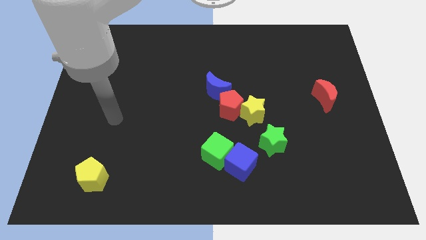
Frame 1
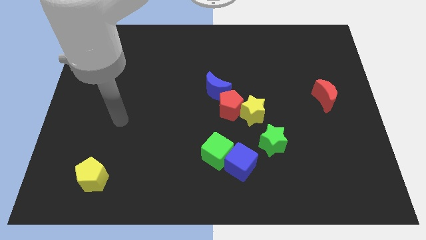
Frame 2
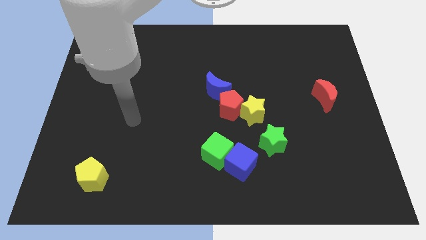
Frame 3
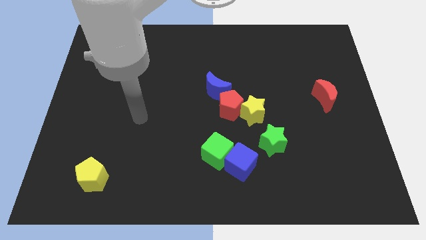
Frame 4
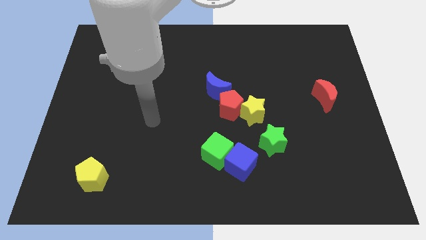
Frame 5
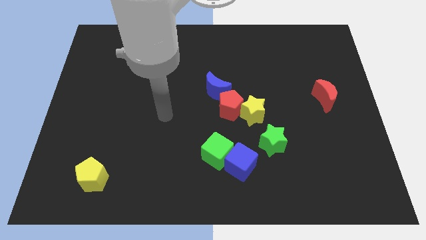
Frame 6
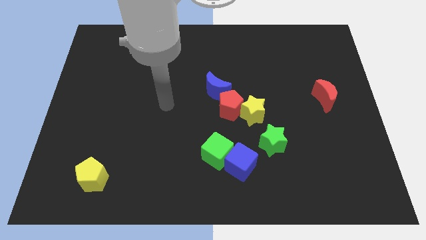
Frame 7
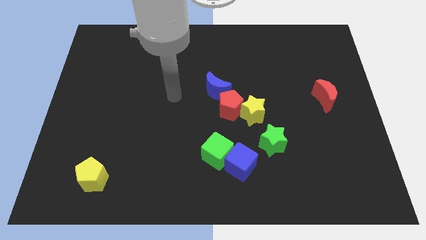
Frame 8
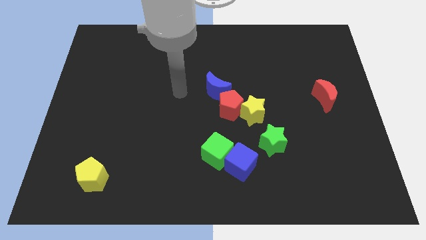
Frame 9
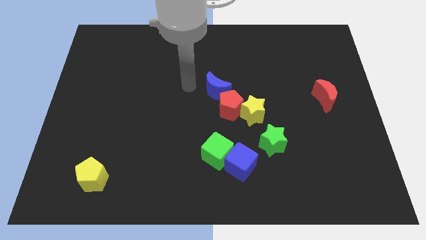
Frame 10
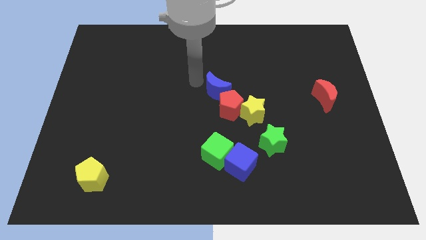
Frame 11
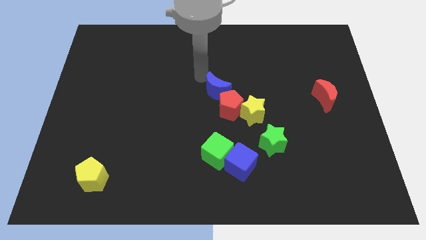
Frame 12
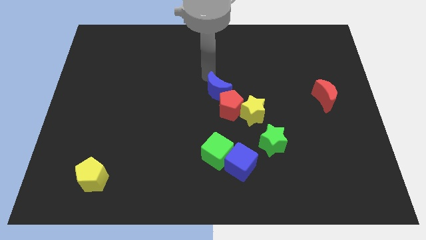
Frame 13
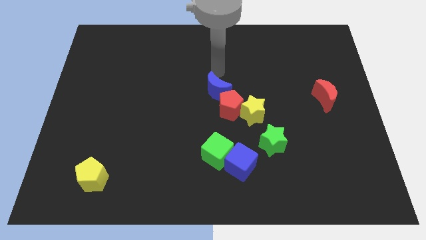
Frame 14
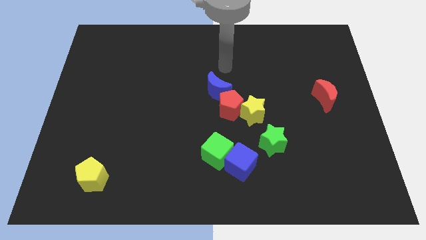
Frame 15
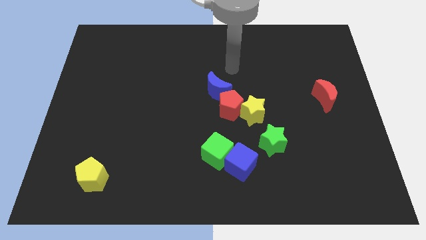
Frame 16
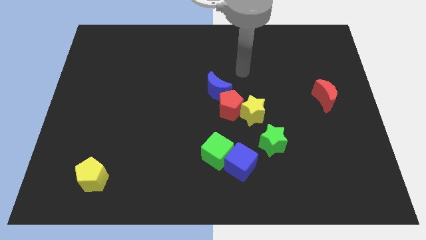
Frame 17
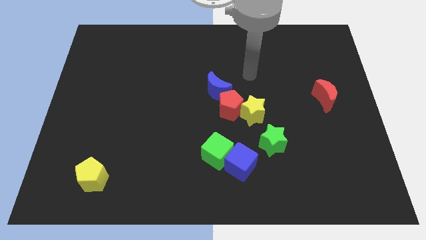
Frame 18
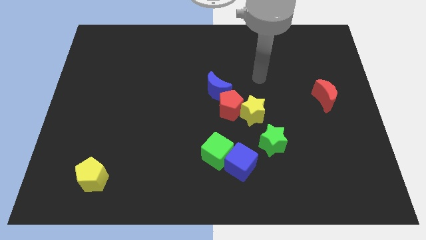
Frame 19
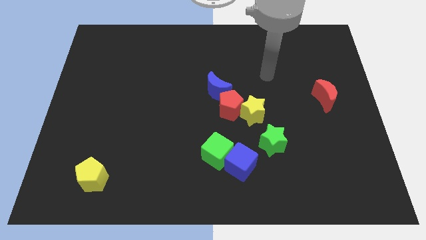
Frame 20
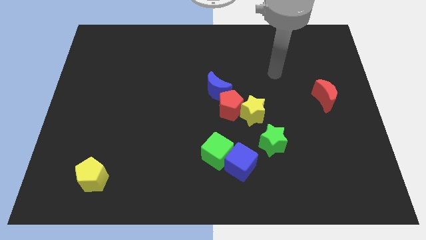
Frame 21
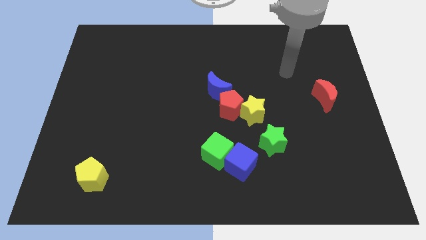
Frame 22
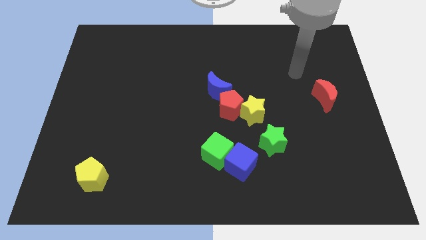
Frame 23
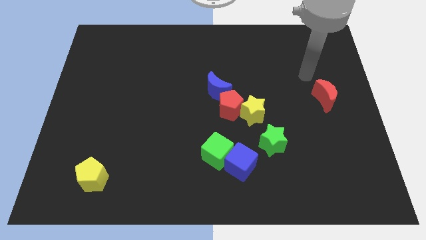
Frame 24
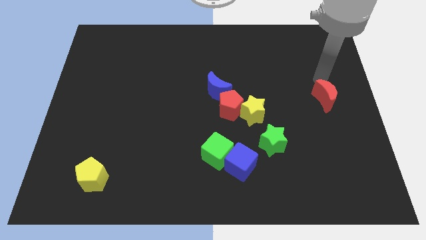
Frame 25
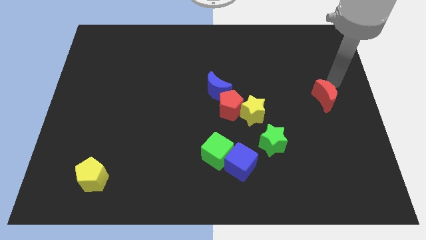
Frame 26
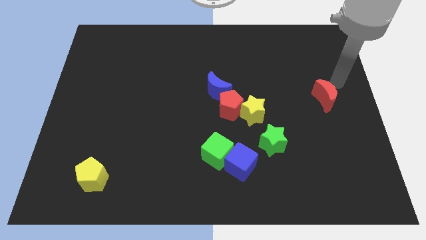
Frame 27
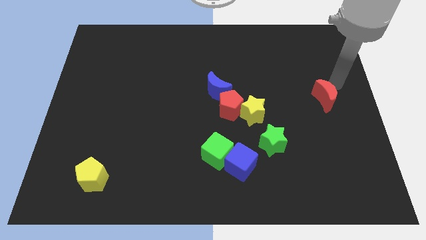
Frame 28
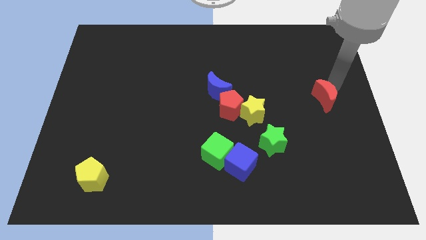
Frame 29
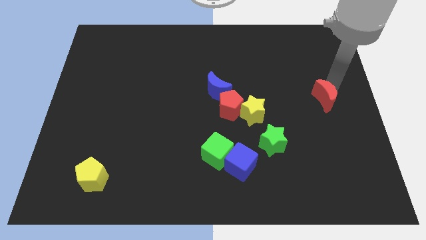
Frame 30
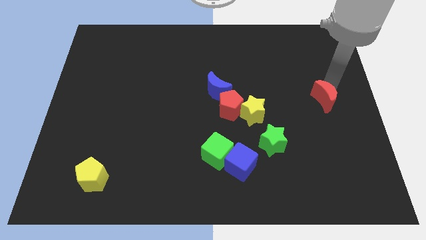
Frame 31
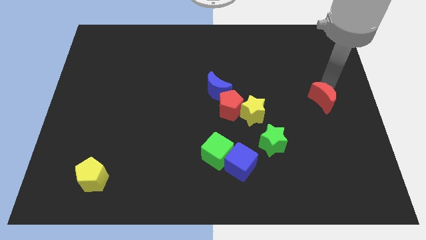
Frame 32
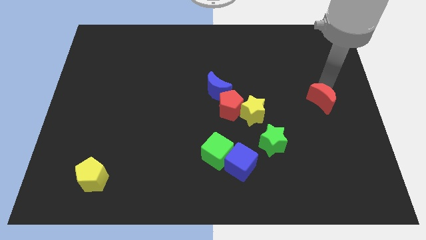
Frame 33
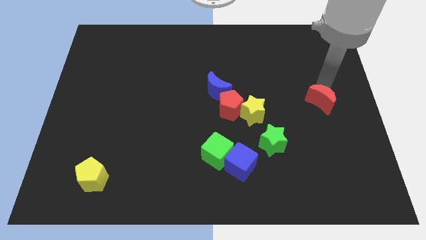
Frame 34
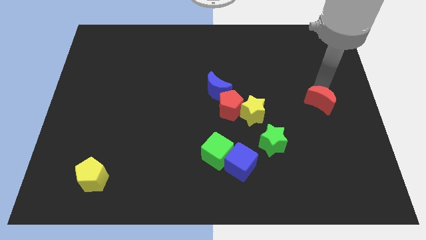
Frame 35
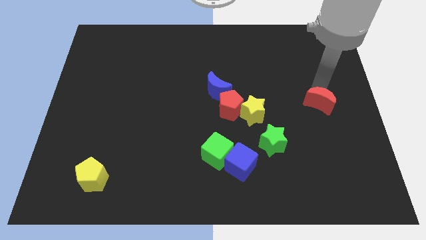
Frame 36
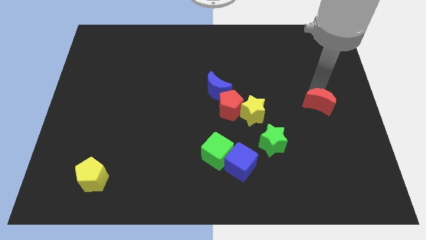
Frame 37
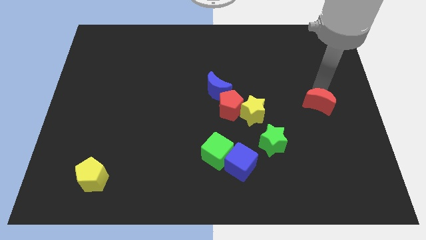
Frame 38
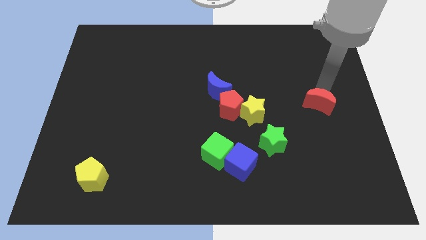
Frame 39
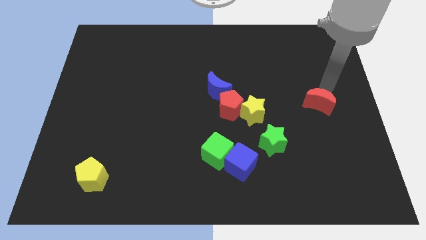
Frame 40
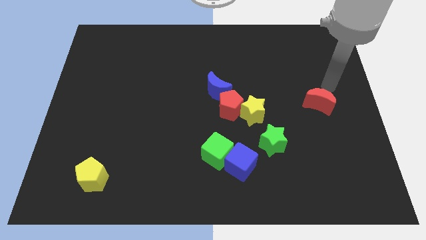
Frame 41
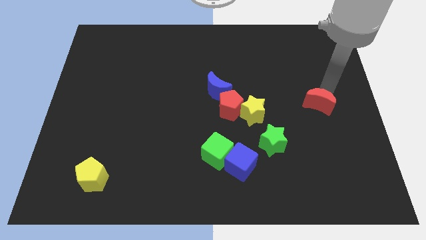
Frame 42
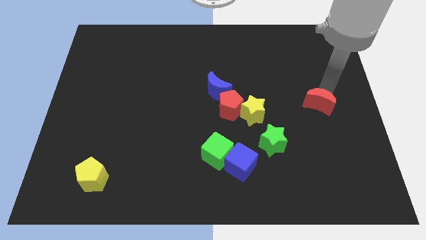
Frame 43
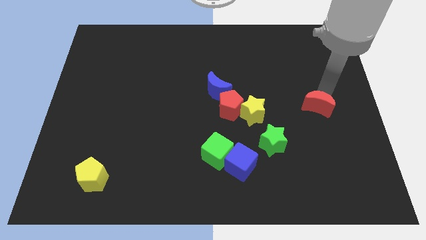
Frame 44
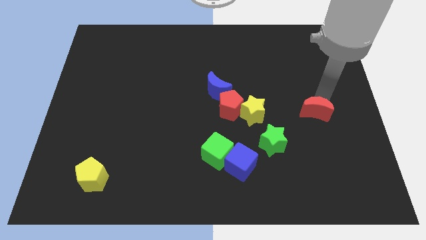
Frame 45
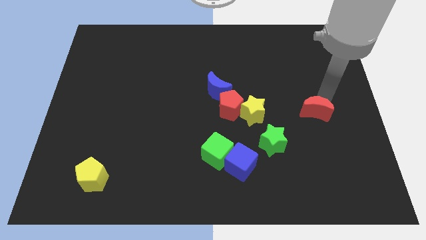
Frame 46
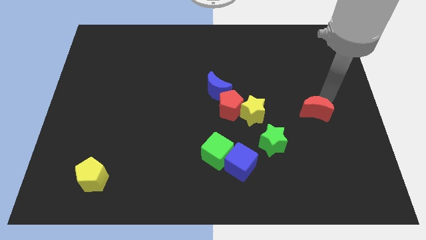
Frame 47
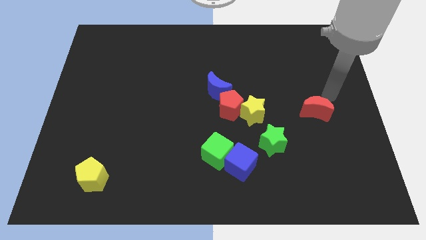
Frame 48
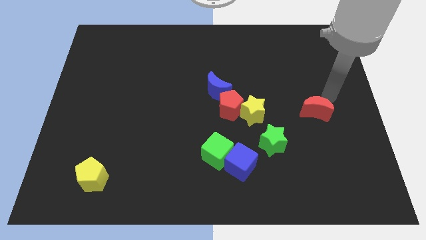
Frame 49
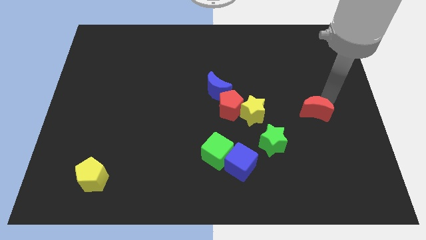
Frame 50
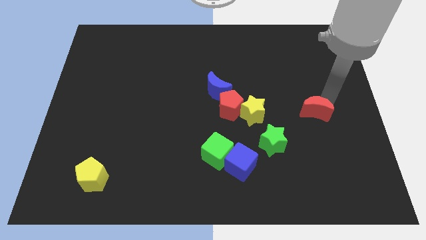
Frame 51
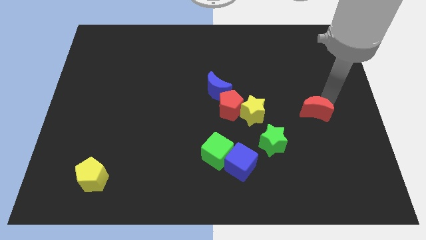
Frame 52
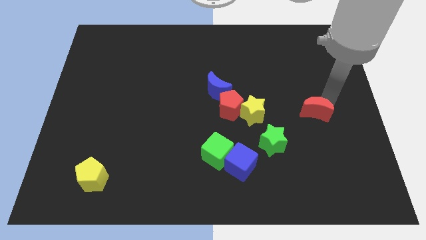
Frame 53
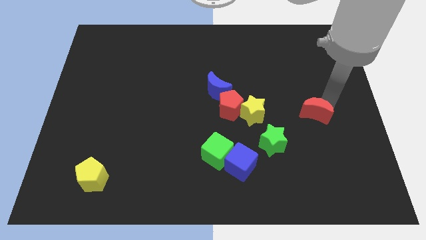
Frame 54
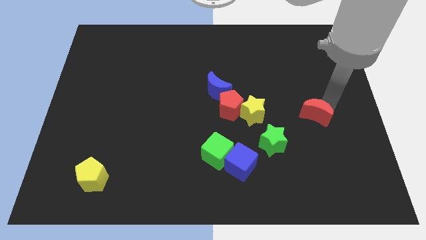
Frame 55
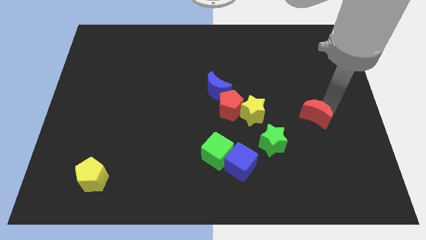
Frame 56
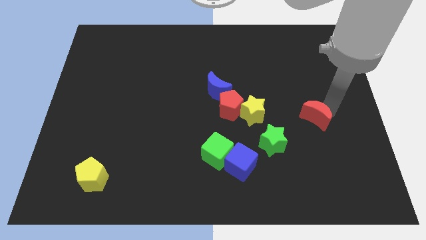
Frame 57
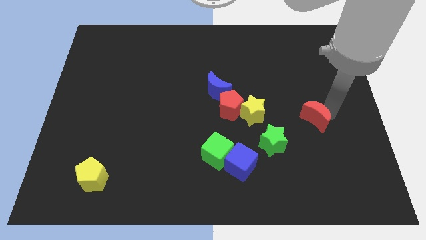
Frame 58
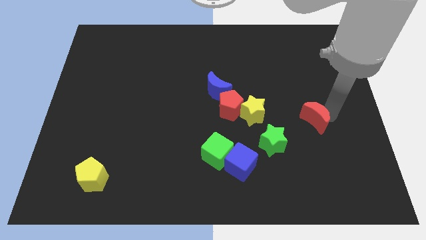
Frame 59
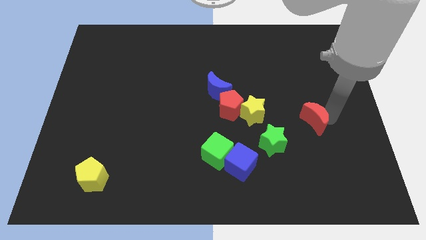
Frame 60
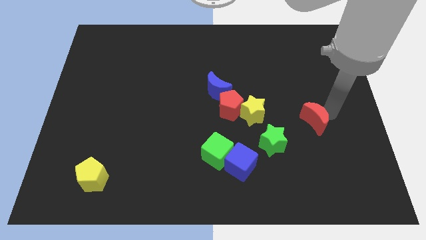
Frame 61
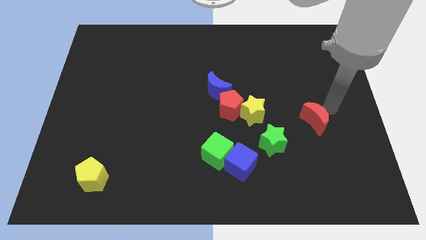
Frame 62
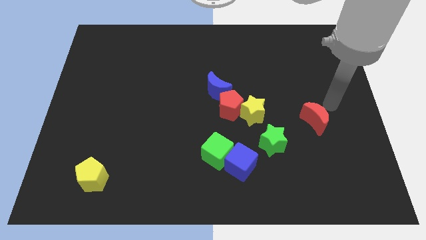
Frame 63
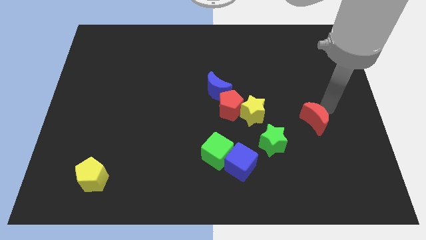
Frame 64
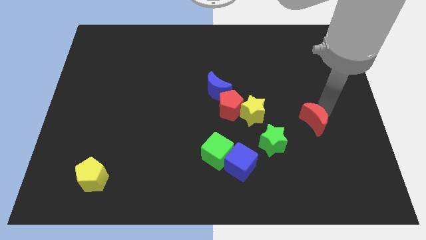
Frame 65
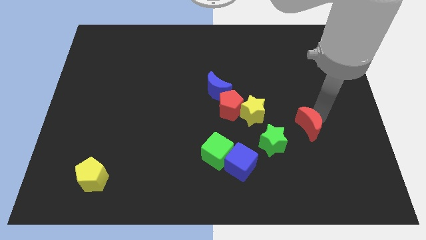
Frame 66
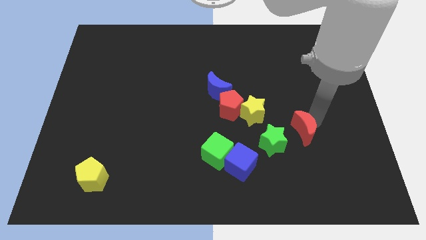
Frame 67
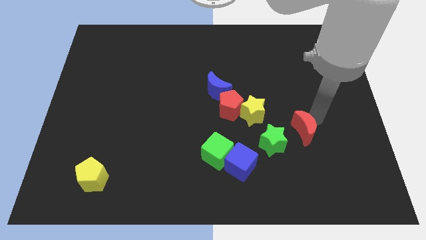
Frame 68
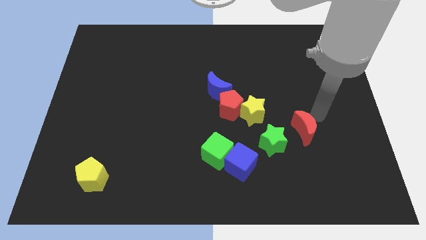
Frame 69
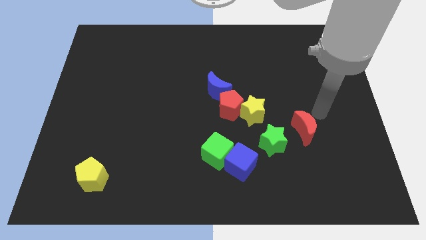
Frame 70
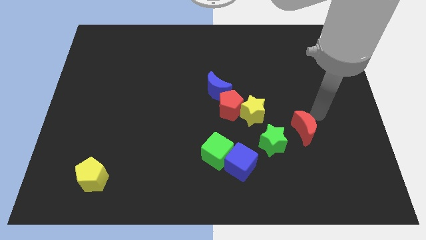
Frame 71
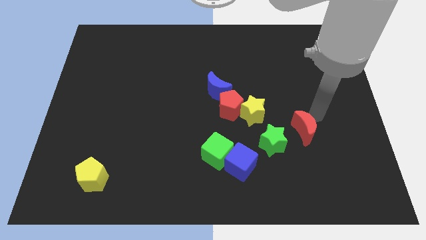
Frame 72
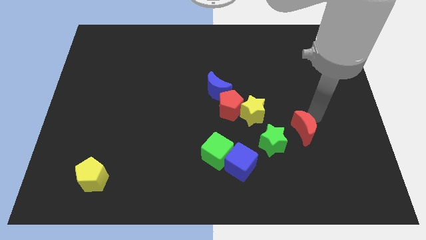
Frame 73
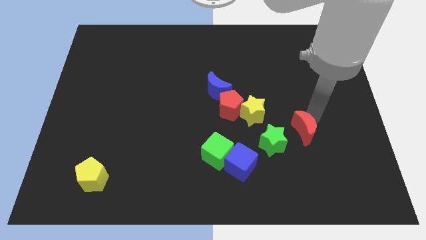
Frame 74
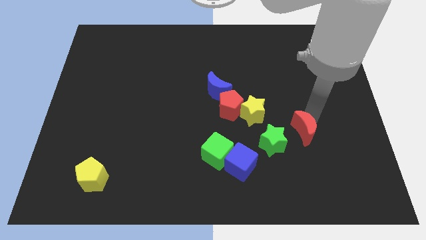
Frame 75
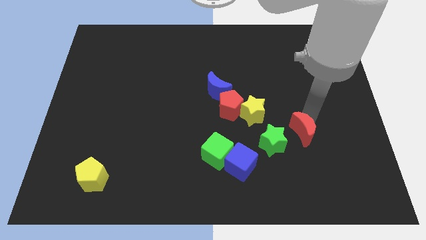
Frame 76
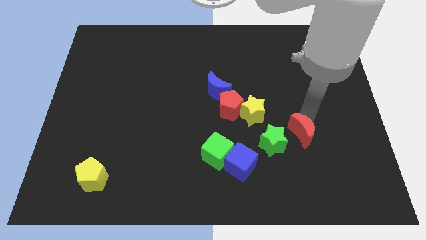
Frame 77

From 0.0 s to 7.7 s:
slide the red moon diagonally down and to the right of the yellow star
